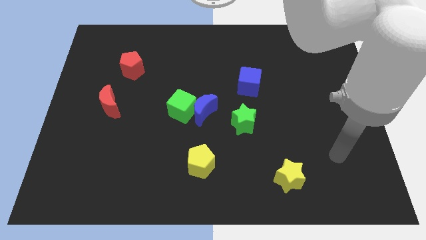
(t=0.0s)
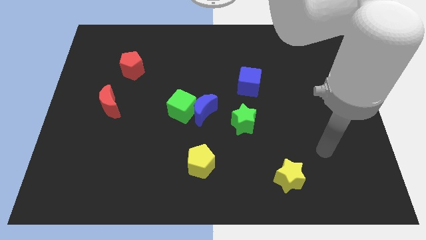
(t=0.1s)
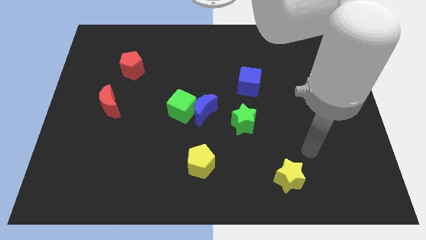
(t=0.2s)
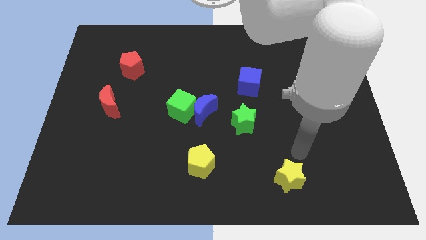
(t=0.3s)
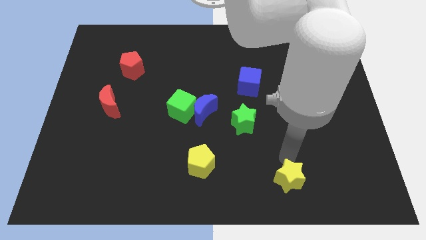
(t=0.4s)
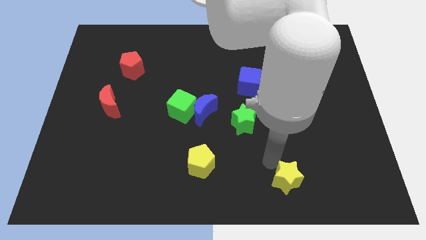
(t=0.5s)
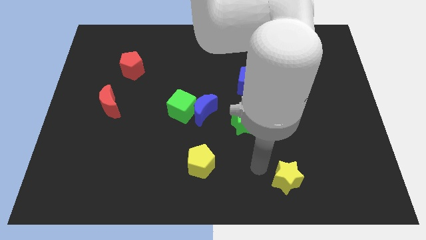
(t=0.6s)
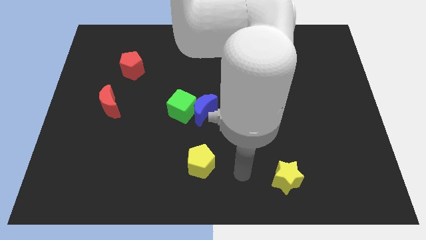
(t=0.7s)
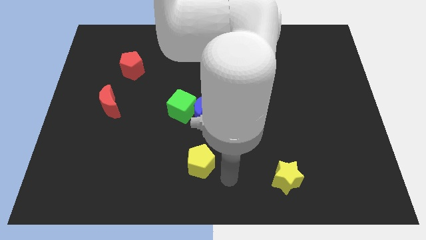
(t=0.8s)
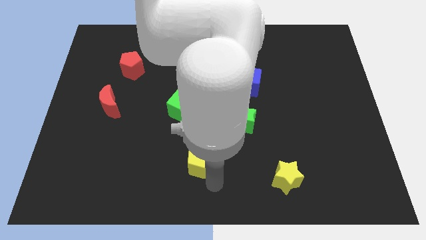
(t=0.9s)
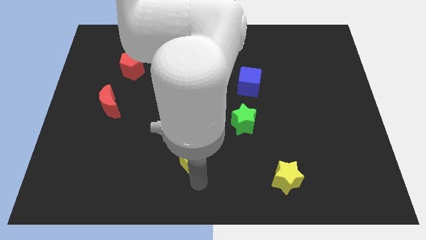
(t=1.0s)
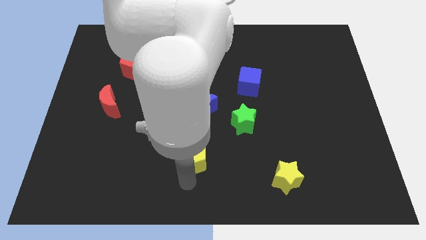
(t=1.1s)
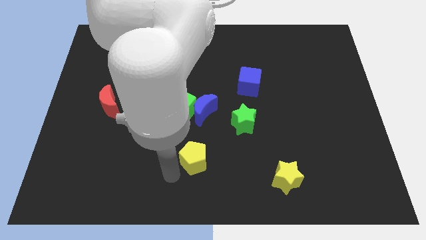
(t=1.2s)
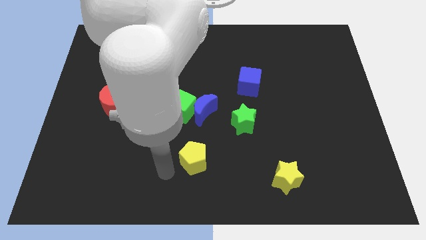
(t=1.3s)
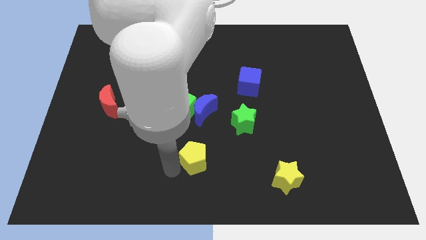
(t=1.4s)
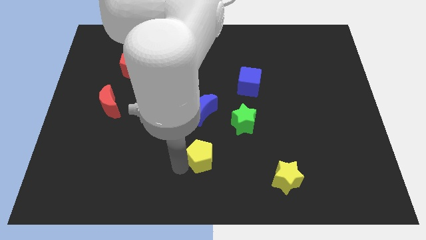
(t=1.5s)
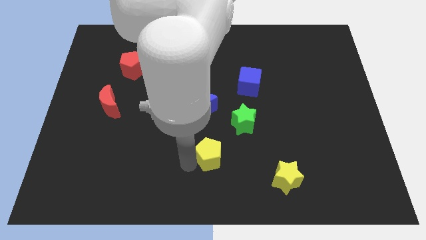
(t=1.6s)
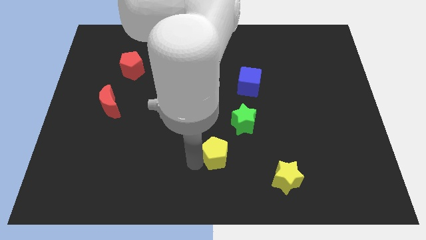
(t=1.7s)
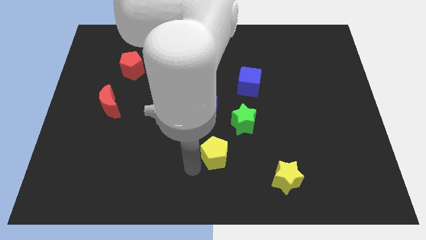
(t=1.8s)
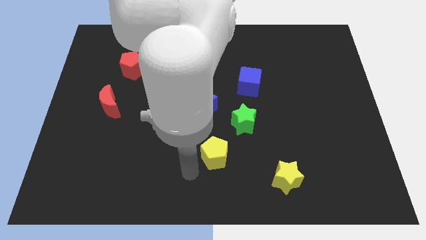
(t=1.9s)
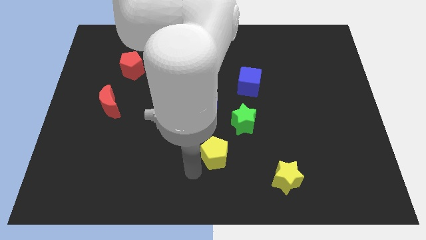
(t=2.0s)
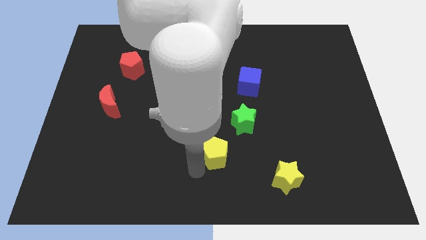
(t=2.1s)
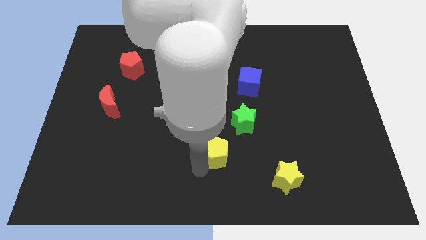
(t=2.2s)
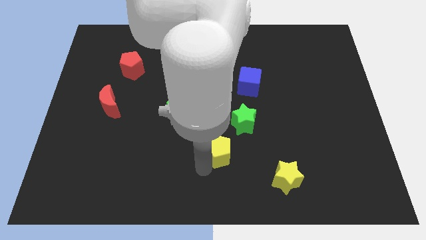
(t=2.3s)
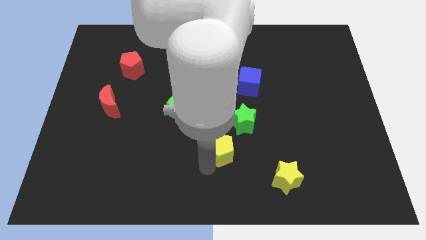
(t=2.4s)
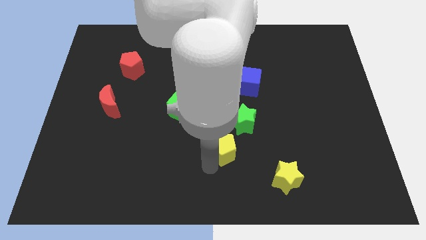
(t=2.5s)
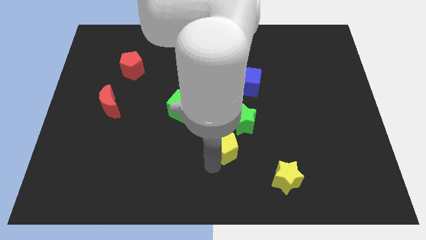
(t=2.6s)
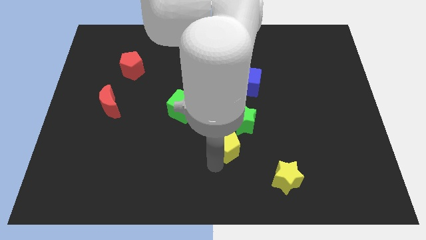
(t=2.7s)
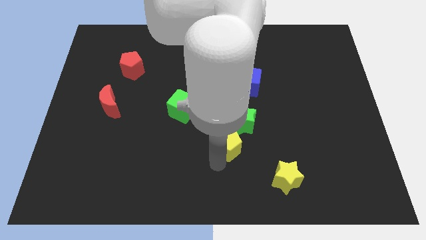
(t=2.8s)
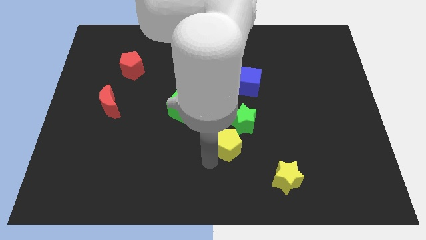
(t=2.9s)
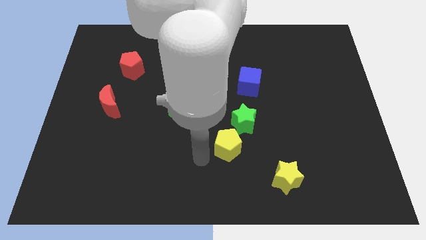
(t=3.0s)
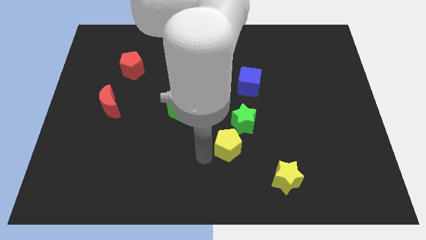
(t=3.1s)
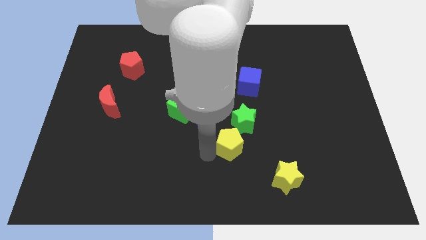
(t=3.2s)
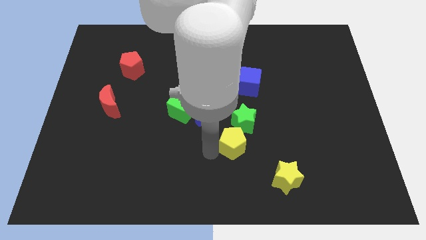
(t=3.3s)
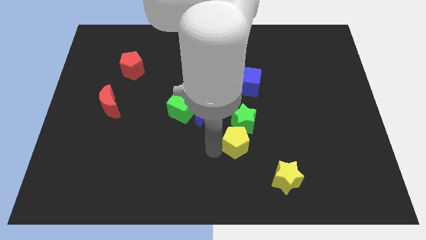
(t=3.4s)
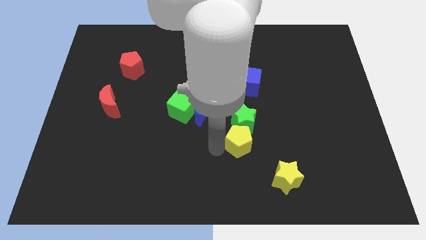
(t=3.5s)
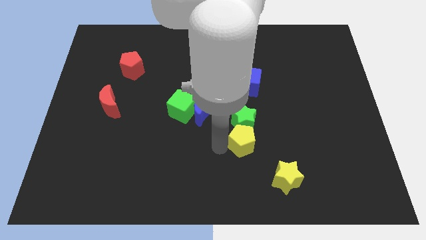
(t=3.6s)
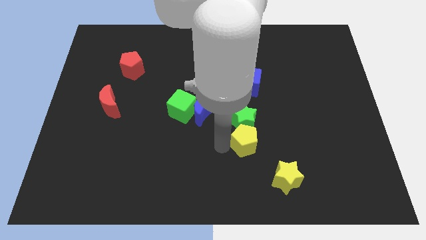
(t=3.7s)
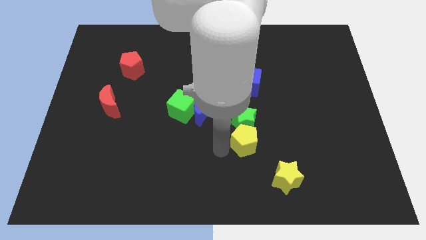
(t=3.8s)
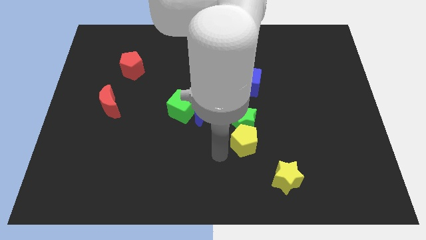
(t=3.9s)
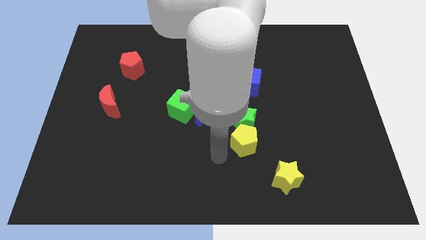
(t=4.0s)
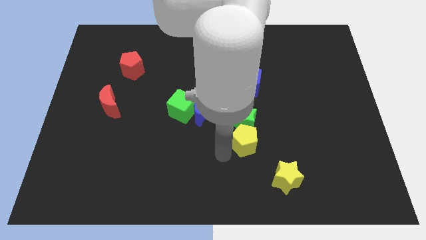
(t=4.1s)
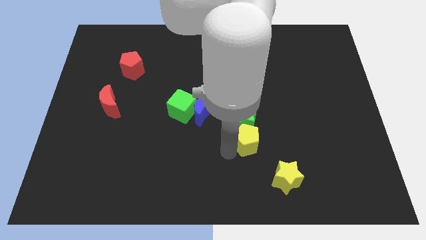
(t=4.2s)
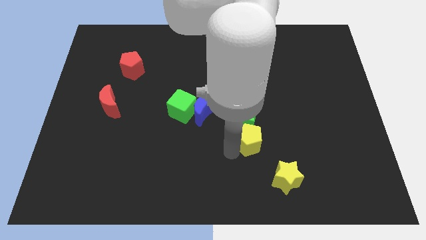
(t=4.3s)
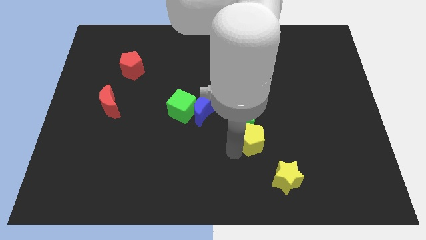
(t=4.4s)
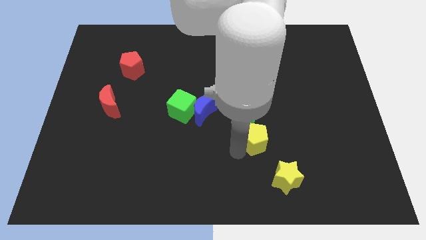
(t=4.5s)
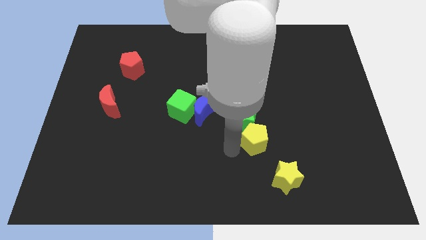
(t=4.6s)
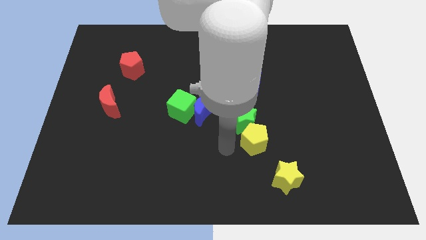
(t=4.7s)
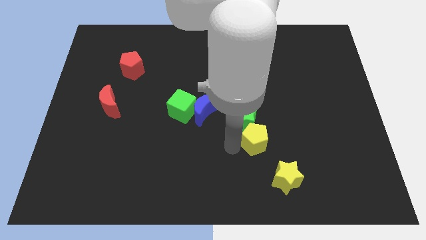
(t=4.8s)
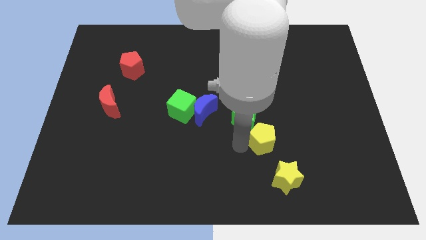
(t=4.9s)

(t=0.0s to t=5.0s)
push the yellow pentagon above the yellow star

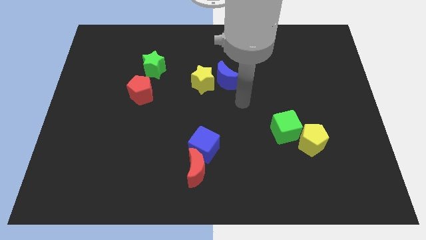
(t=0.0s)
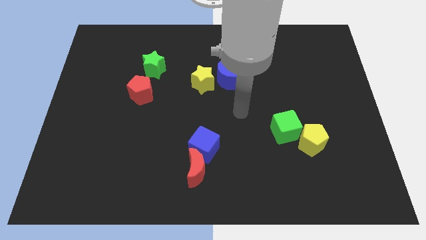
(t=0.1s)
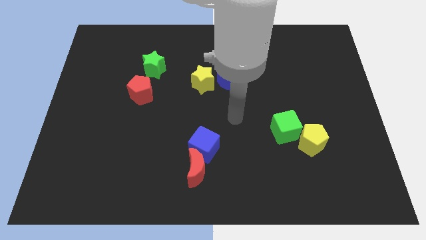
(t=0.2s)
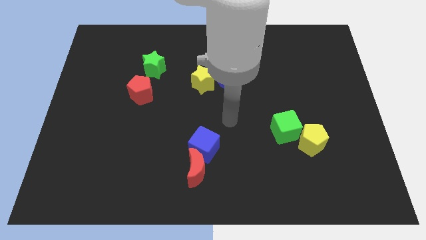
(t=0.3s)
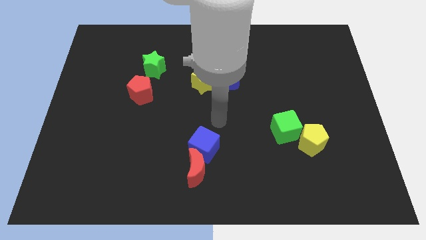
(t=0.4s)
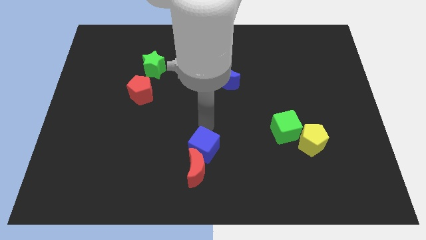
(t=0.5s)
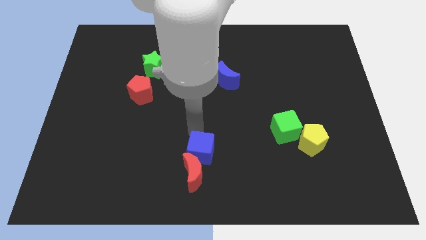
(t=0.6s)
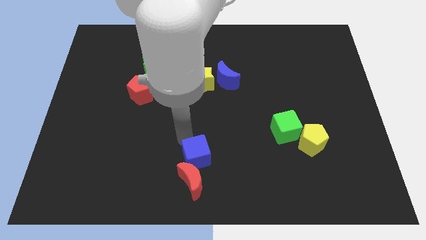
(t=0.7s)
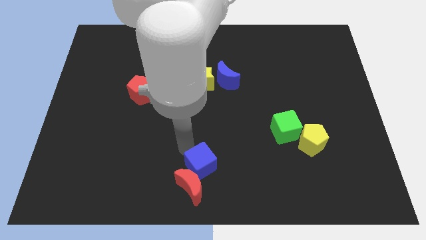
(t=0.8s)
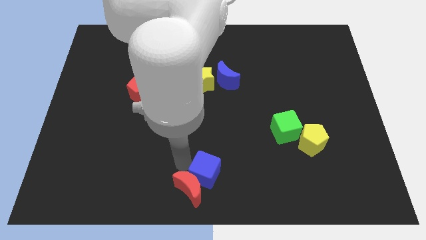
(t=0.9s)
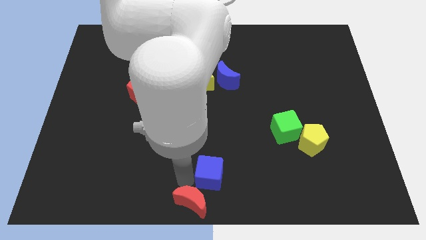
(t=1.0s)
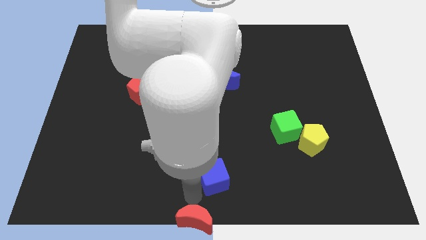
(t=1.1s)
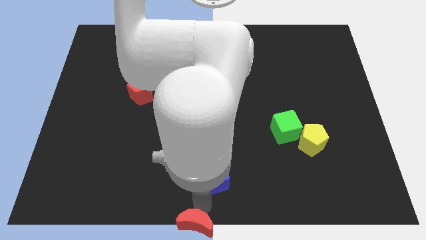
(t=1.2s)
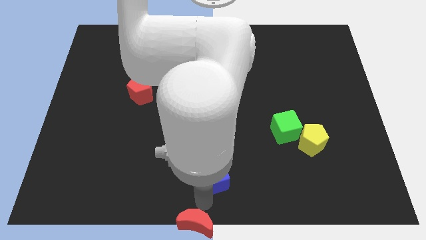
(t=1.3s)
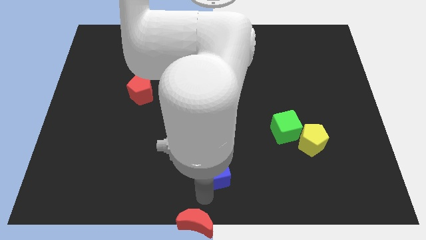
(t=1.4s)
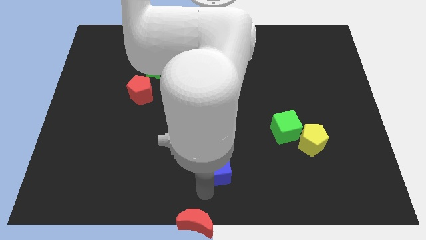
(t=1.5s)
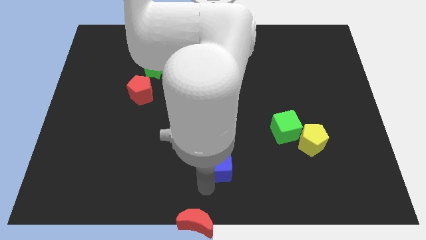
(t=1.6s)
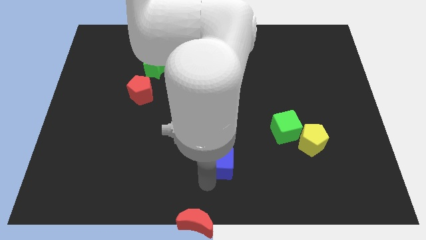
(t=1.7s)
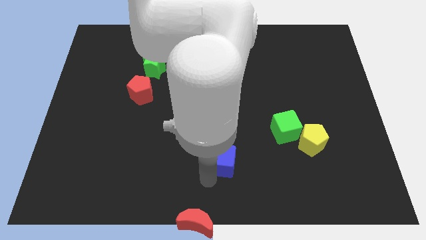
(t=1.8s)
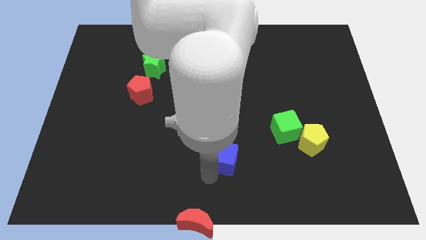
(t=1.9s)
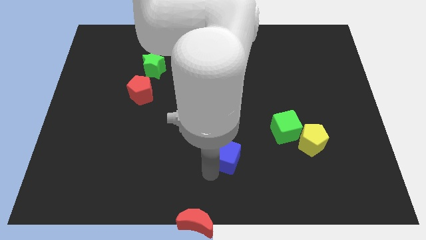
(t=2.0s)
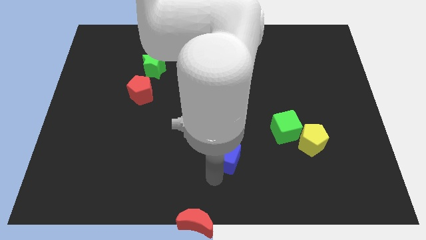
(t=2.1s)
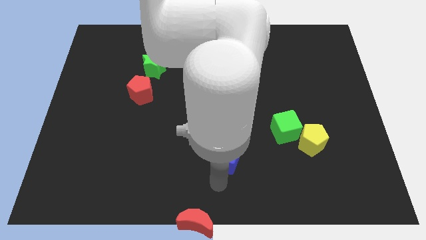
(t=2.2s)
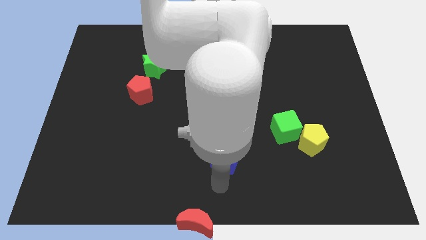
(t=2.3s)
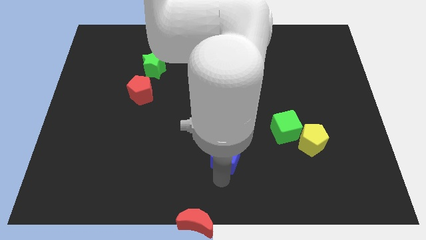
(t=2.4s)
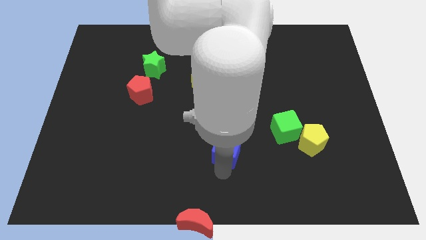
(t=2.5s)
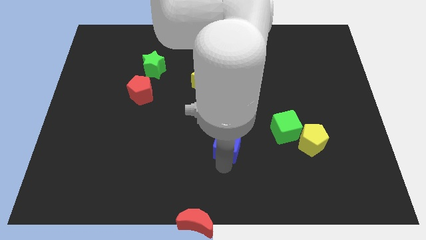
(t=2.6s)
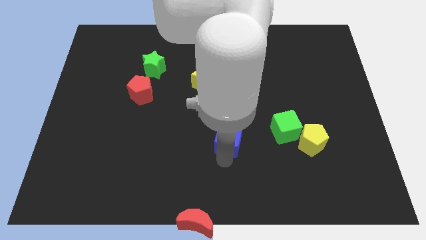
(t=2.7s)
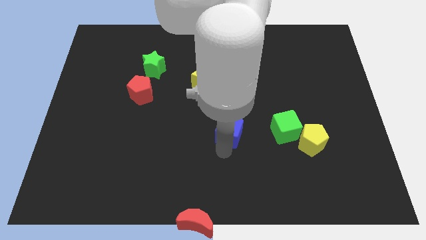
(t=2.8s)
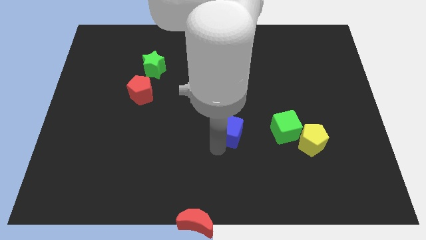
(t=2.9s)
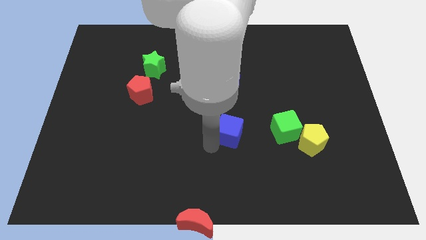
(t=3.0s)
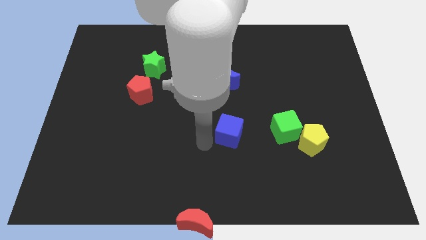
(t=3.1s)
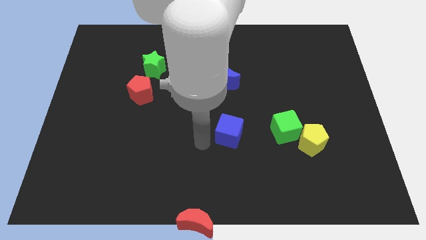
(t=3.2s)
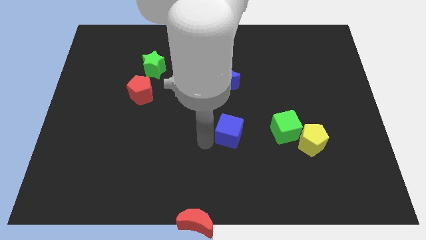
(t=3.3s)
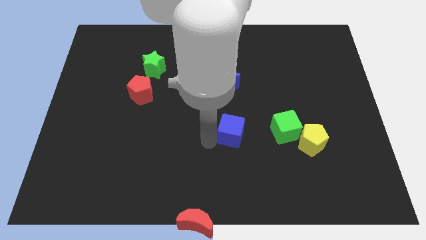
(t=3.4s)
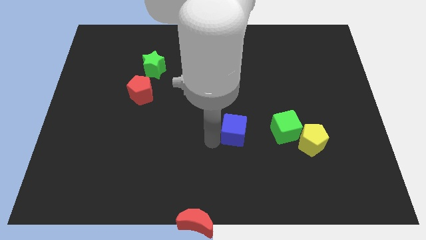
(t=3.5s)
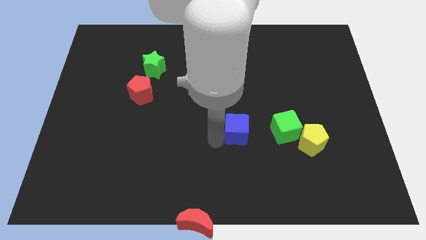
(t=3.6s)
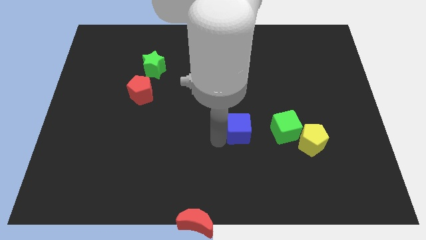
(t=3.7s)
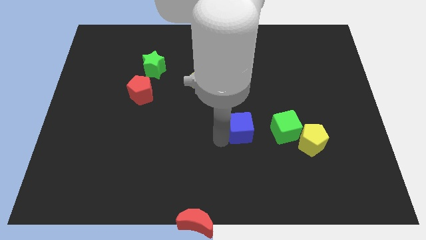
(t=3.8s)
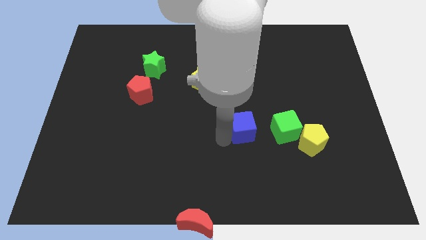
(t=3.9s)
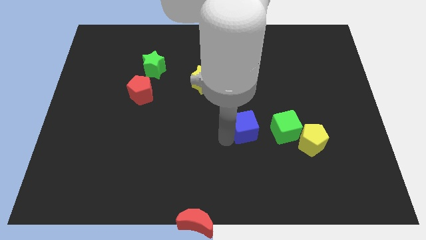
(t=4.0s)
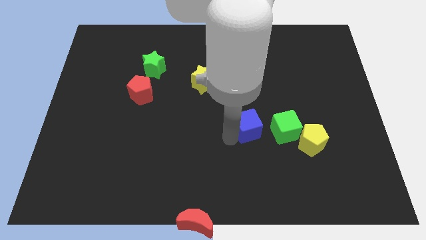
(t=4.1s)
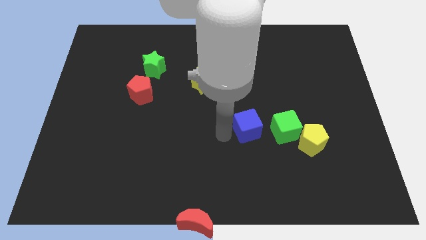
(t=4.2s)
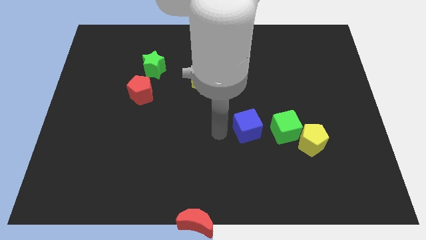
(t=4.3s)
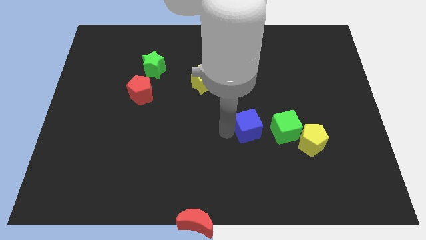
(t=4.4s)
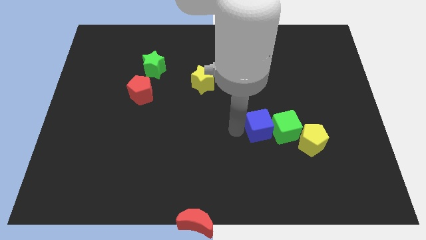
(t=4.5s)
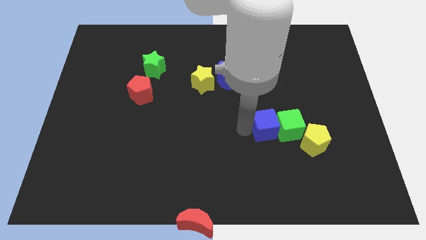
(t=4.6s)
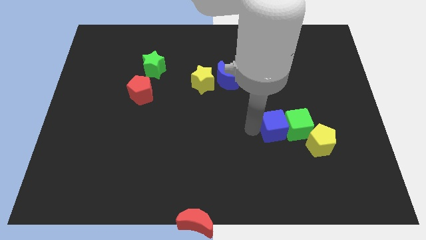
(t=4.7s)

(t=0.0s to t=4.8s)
put the blue cube to the top left of the yellow pentagon
